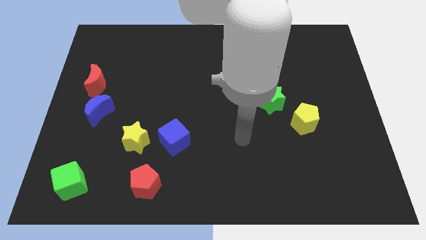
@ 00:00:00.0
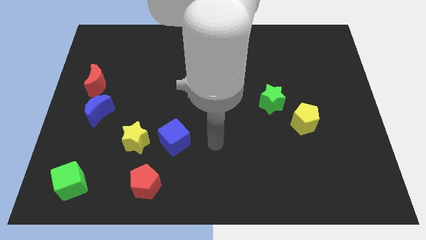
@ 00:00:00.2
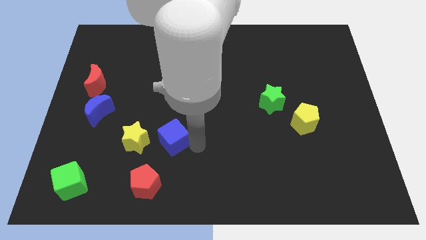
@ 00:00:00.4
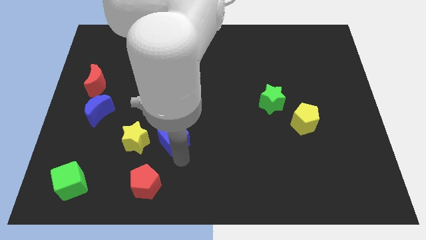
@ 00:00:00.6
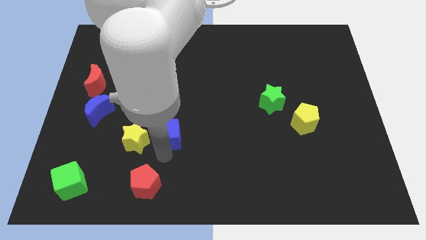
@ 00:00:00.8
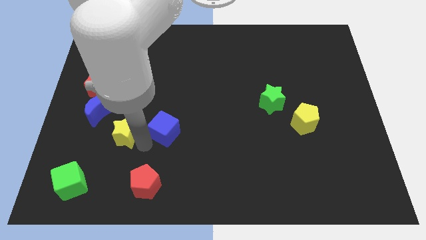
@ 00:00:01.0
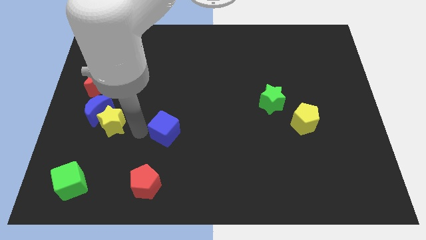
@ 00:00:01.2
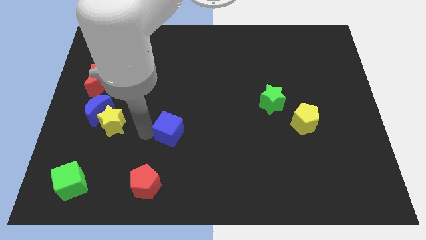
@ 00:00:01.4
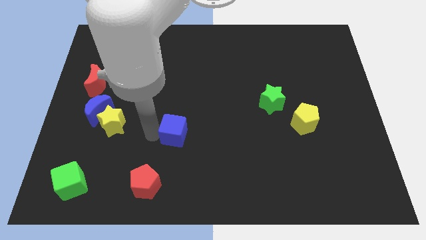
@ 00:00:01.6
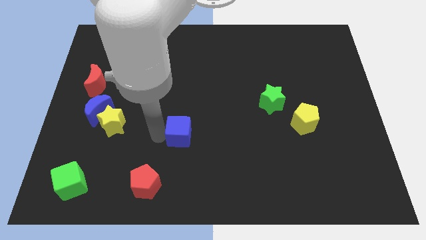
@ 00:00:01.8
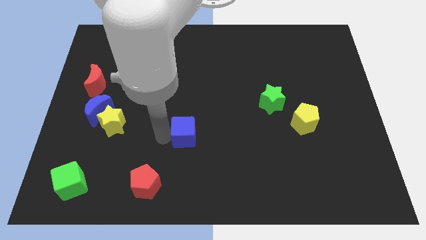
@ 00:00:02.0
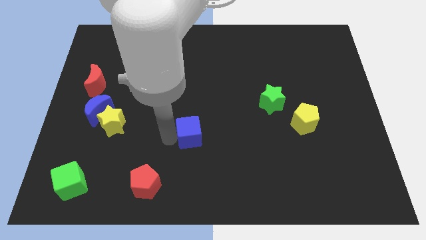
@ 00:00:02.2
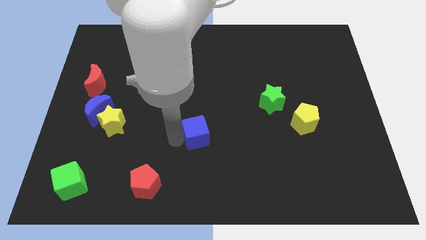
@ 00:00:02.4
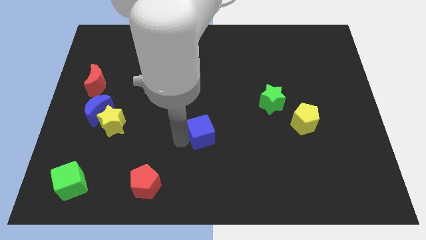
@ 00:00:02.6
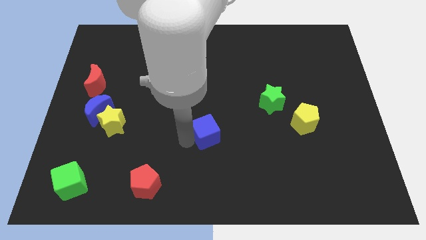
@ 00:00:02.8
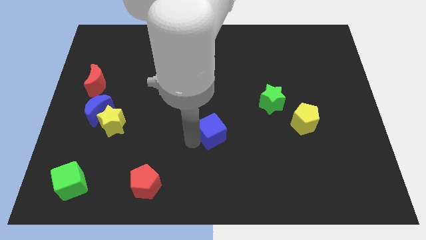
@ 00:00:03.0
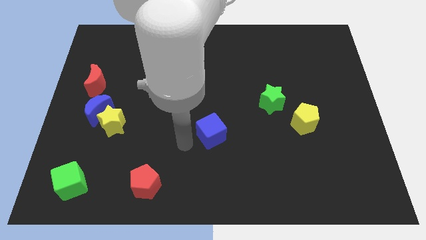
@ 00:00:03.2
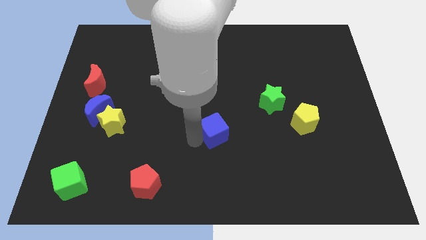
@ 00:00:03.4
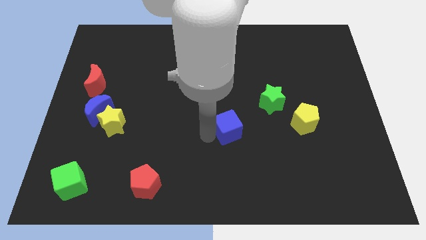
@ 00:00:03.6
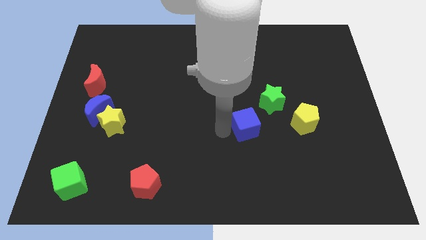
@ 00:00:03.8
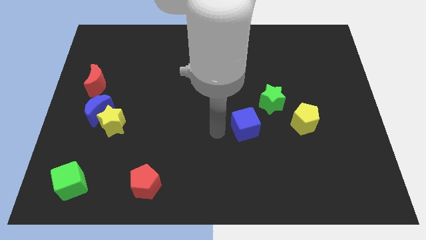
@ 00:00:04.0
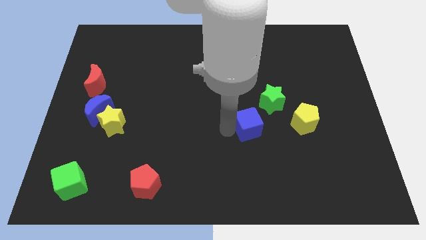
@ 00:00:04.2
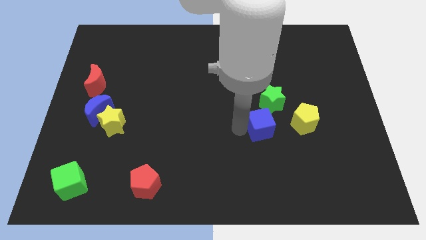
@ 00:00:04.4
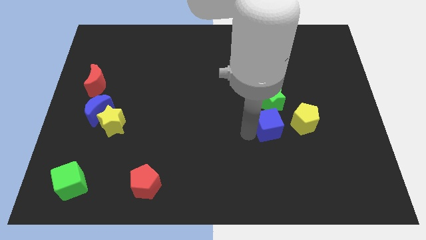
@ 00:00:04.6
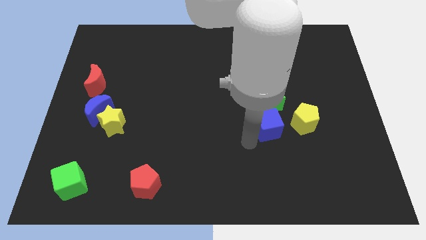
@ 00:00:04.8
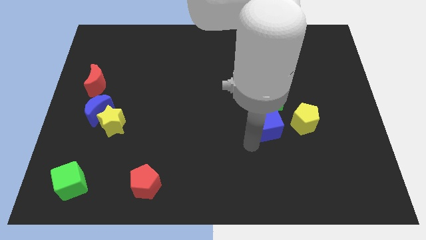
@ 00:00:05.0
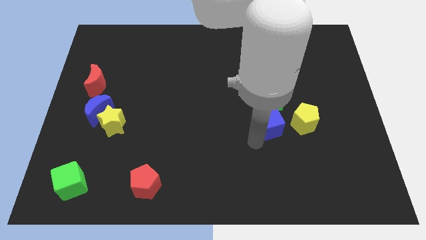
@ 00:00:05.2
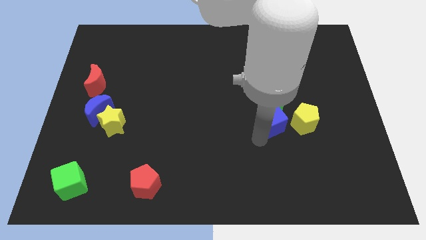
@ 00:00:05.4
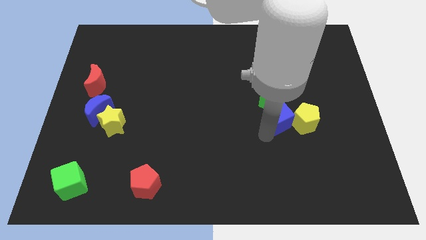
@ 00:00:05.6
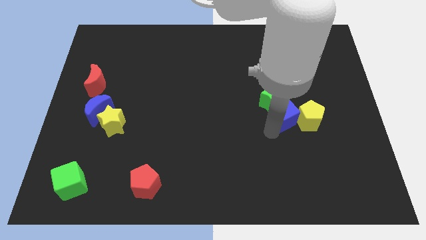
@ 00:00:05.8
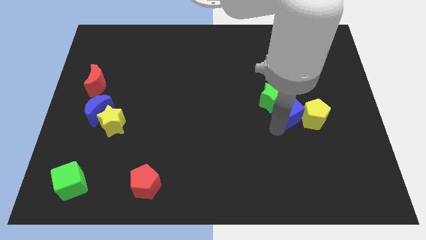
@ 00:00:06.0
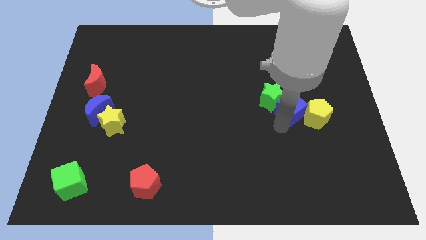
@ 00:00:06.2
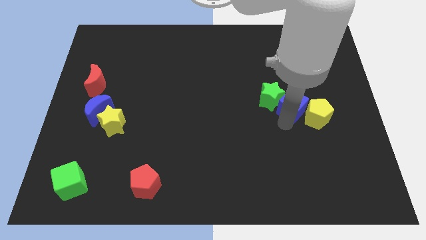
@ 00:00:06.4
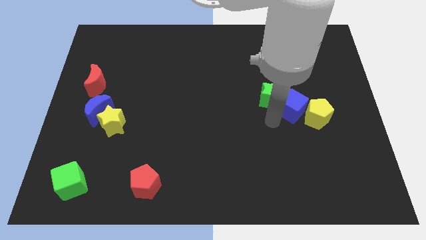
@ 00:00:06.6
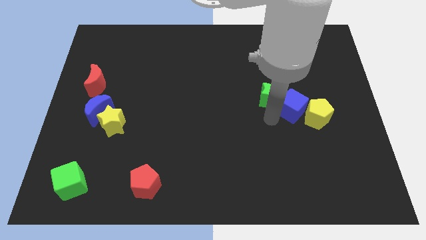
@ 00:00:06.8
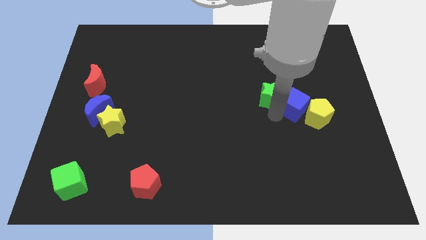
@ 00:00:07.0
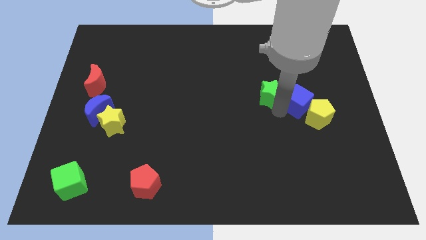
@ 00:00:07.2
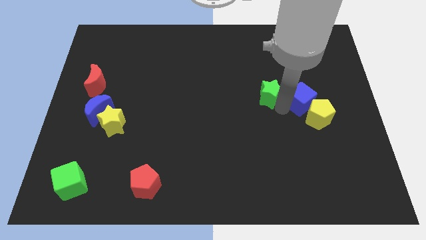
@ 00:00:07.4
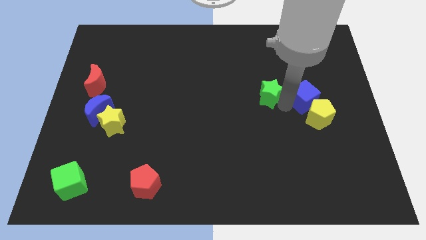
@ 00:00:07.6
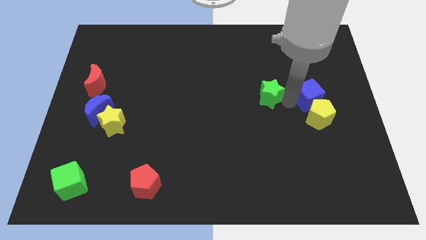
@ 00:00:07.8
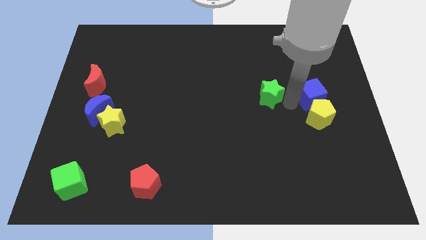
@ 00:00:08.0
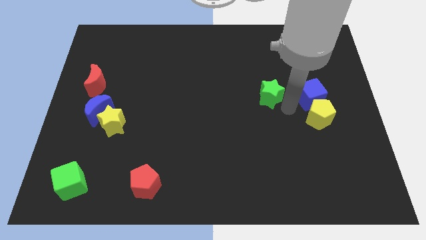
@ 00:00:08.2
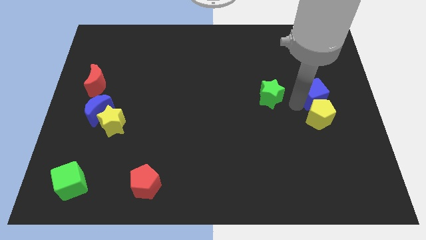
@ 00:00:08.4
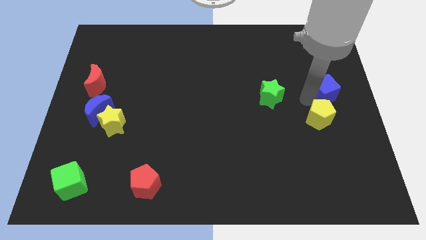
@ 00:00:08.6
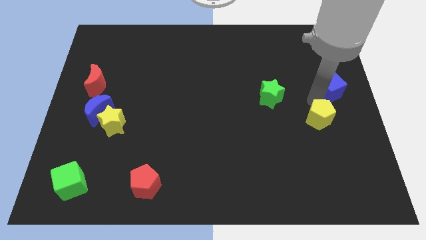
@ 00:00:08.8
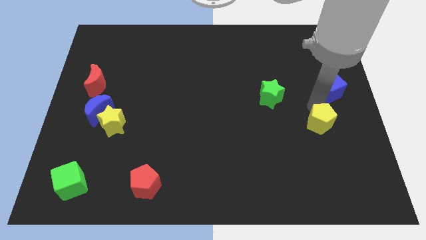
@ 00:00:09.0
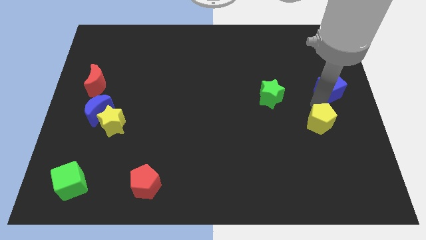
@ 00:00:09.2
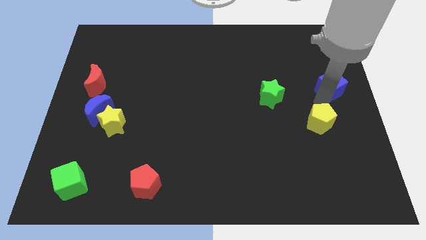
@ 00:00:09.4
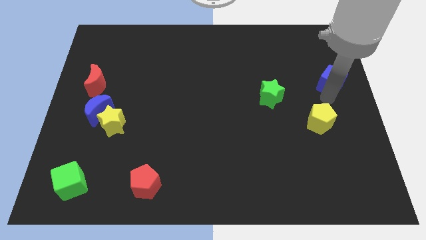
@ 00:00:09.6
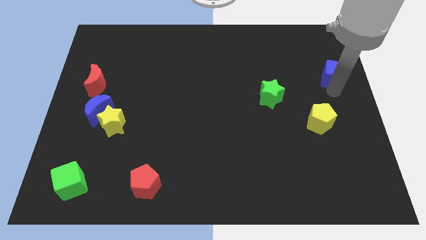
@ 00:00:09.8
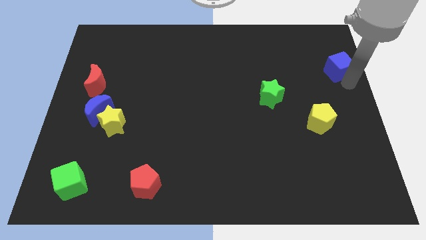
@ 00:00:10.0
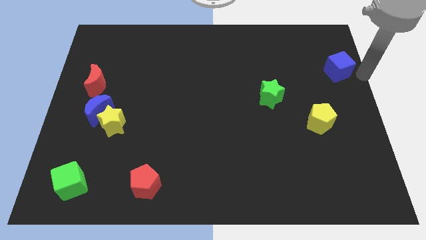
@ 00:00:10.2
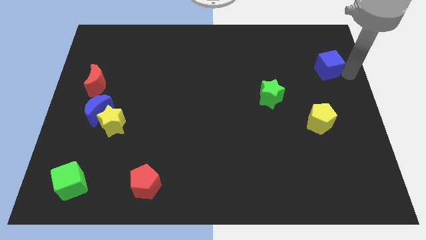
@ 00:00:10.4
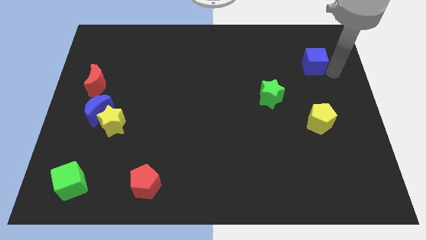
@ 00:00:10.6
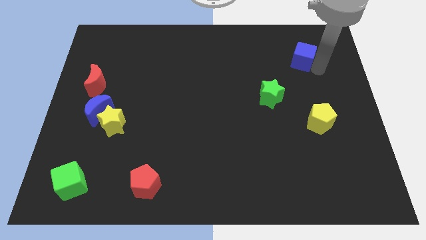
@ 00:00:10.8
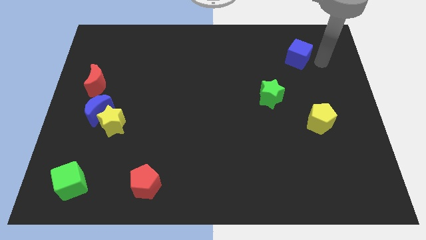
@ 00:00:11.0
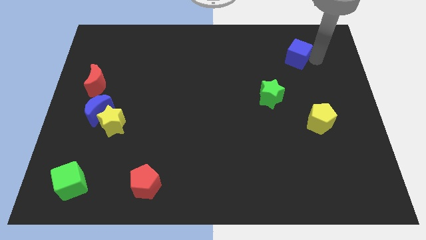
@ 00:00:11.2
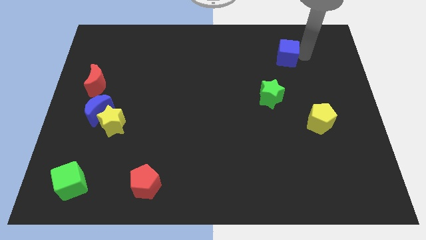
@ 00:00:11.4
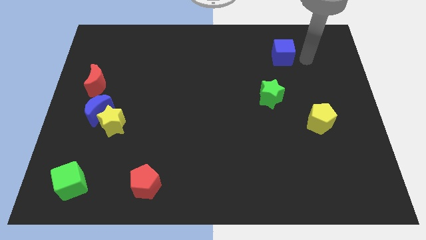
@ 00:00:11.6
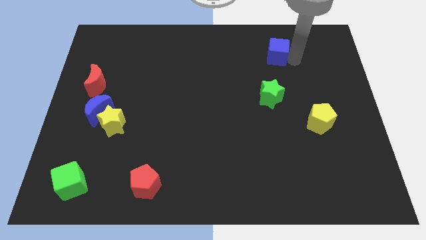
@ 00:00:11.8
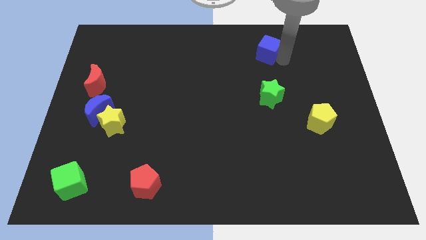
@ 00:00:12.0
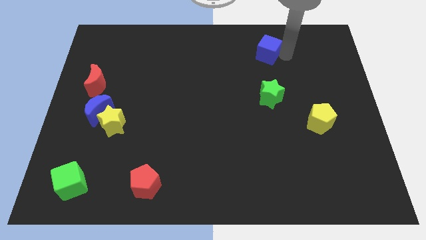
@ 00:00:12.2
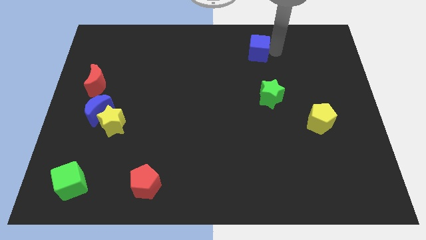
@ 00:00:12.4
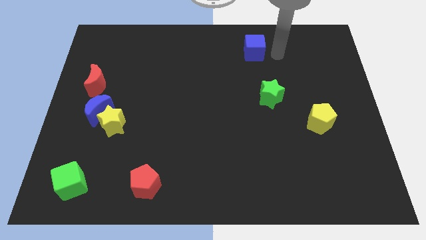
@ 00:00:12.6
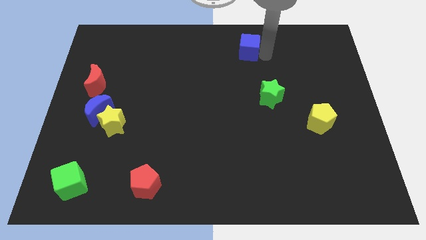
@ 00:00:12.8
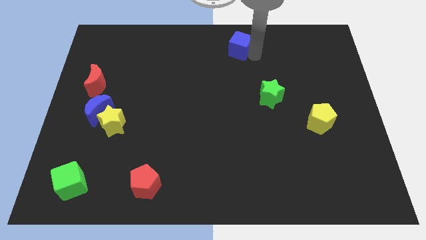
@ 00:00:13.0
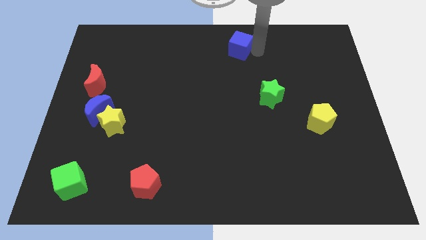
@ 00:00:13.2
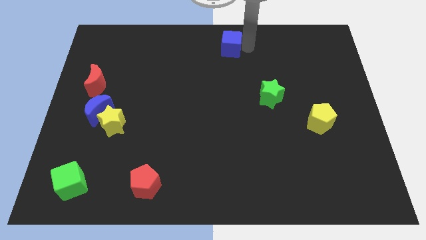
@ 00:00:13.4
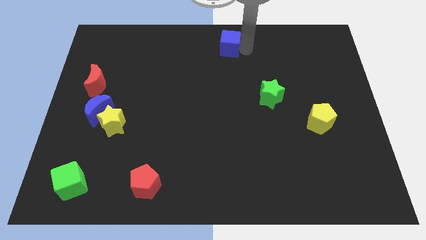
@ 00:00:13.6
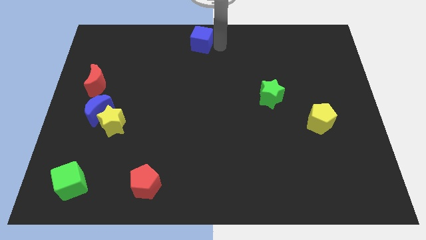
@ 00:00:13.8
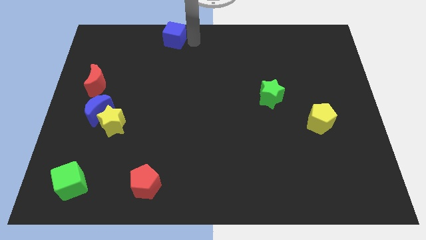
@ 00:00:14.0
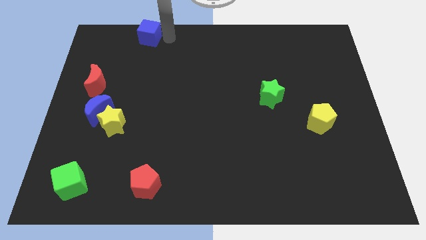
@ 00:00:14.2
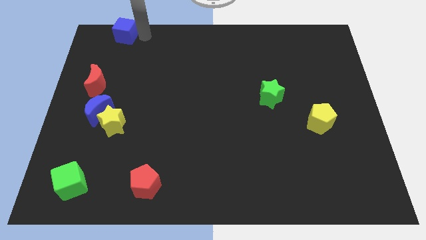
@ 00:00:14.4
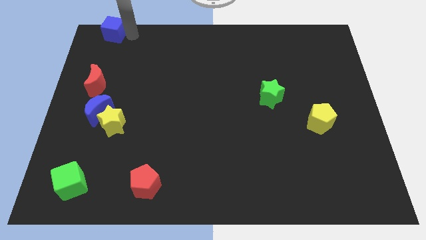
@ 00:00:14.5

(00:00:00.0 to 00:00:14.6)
push the blue cube to the top left
